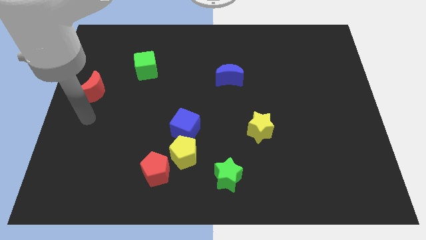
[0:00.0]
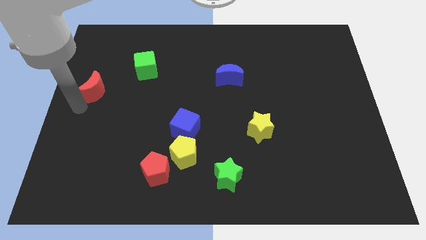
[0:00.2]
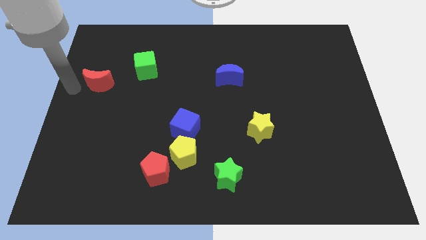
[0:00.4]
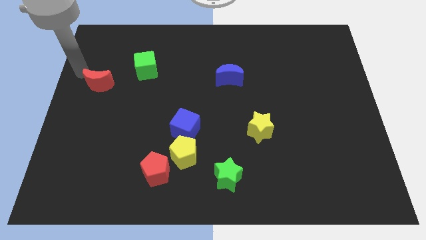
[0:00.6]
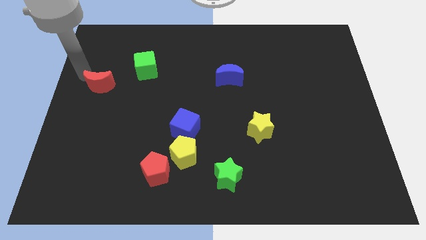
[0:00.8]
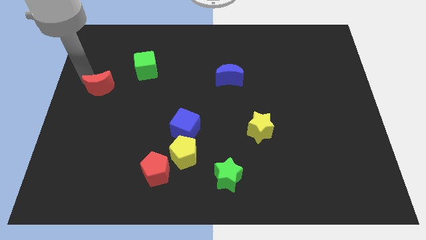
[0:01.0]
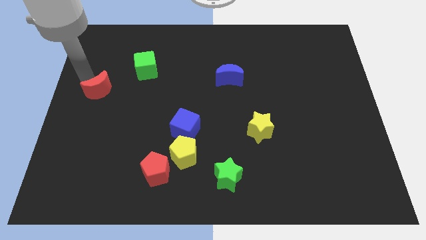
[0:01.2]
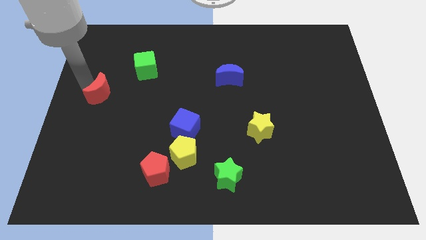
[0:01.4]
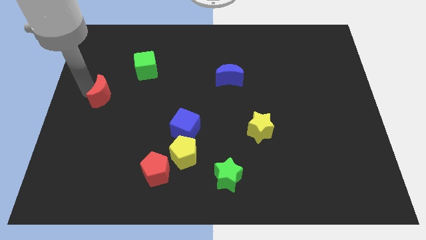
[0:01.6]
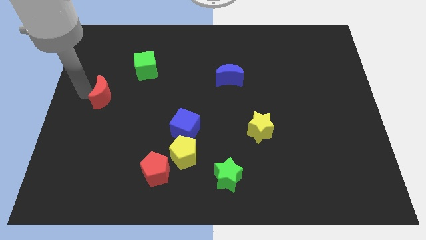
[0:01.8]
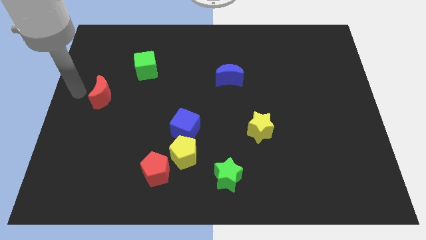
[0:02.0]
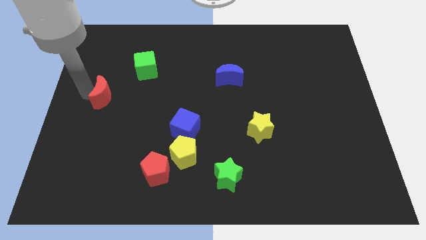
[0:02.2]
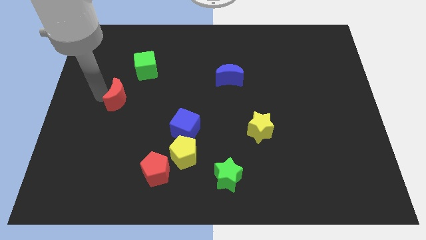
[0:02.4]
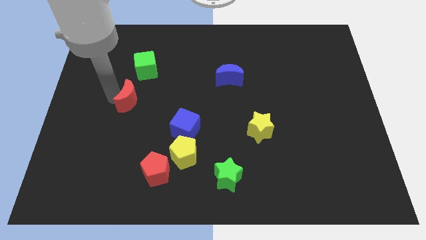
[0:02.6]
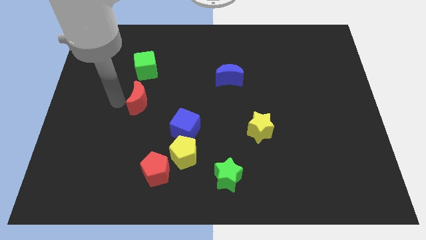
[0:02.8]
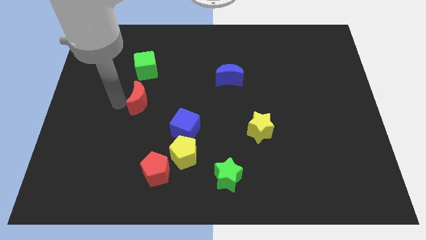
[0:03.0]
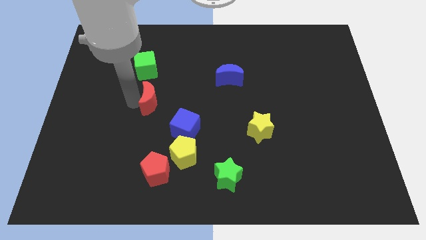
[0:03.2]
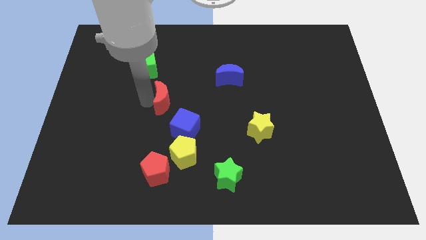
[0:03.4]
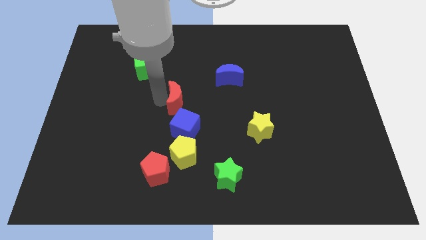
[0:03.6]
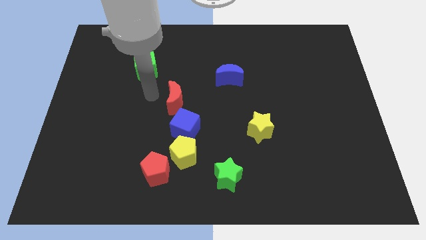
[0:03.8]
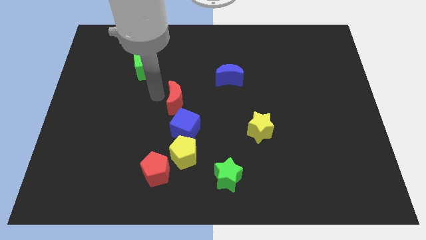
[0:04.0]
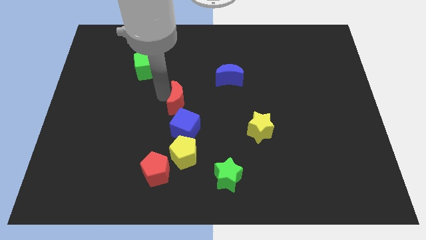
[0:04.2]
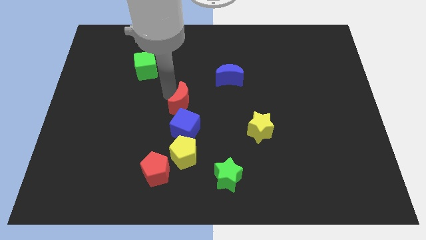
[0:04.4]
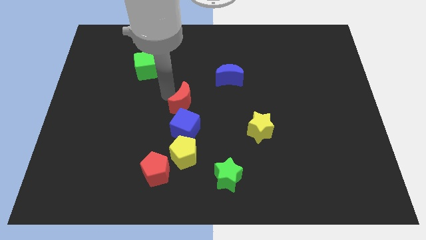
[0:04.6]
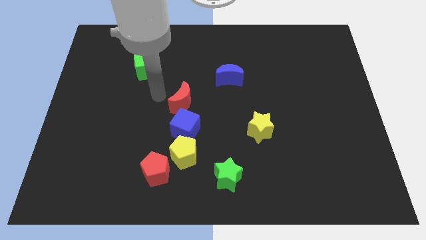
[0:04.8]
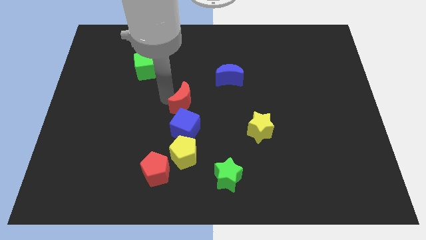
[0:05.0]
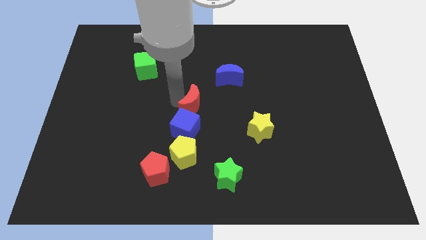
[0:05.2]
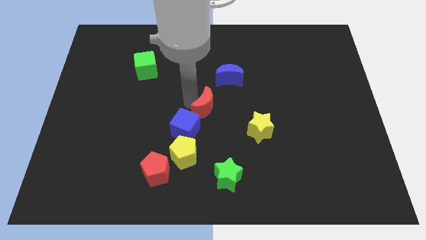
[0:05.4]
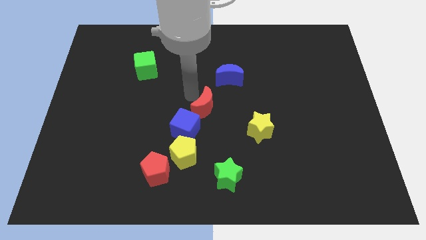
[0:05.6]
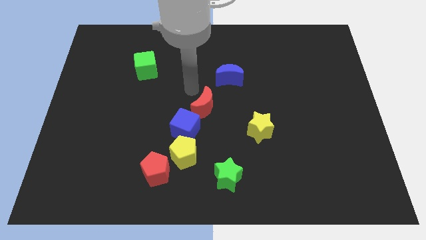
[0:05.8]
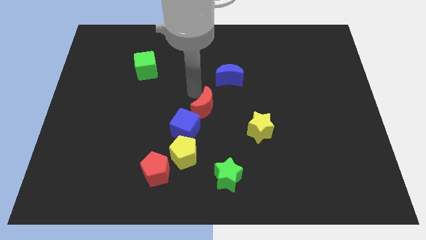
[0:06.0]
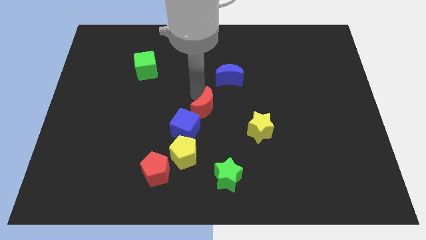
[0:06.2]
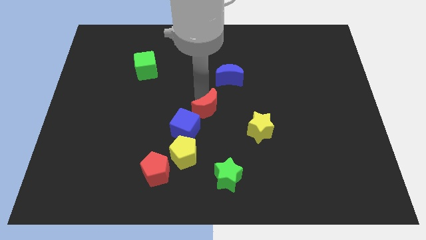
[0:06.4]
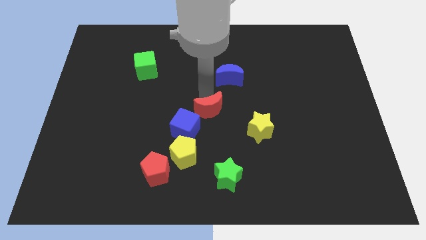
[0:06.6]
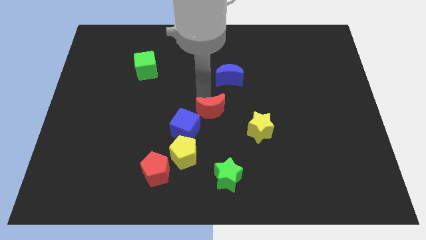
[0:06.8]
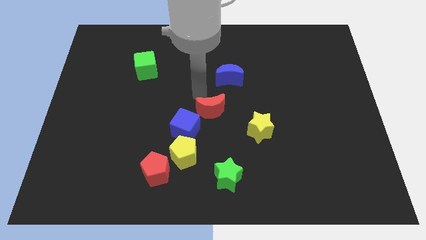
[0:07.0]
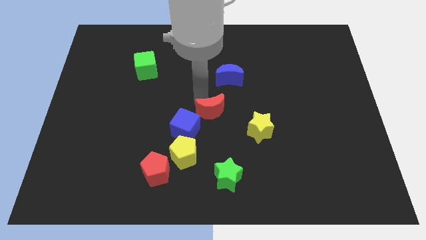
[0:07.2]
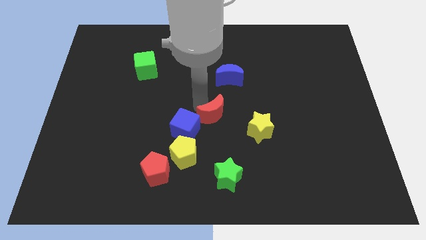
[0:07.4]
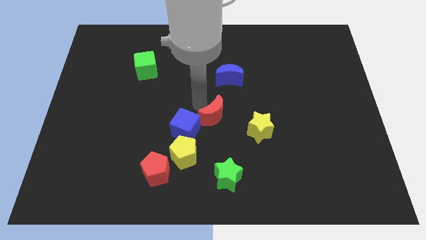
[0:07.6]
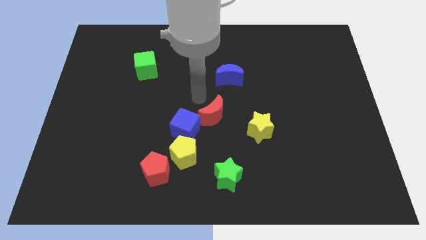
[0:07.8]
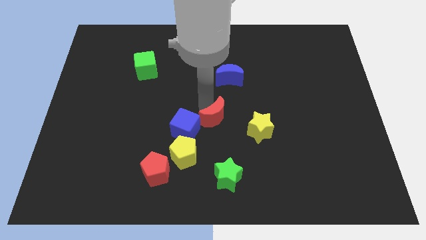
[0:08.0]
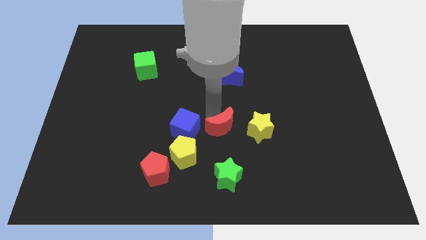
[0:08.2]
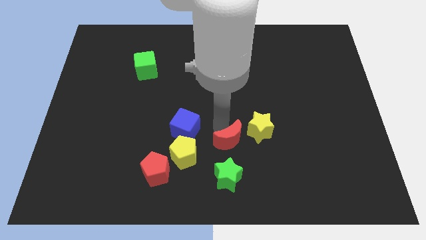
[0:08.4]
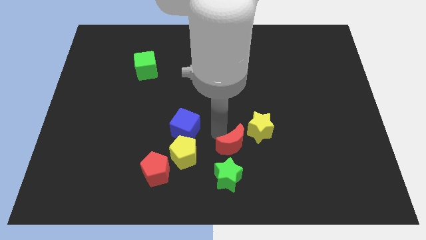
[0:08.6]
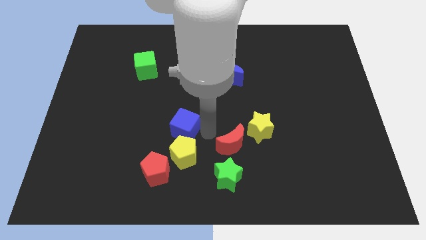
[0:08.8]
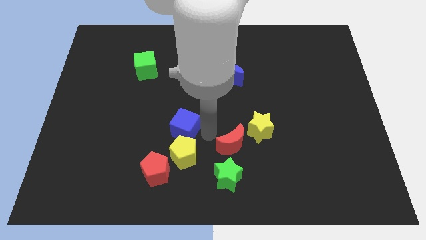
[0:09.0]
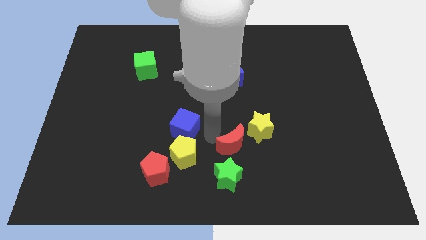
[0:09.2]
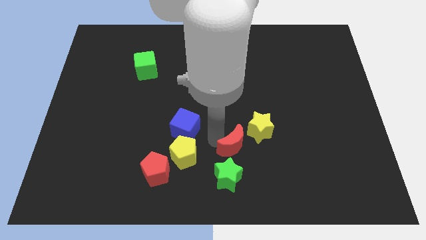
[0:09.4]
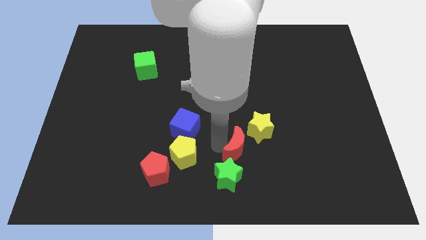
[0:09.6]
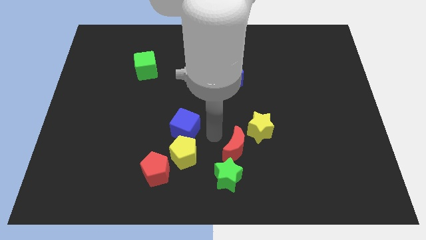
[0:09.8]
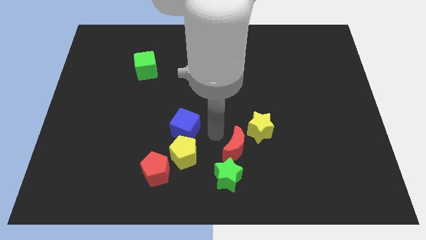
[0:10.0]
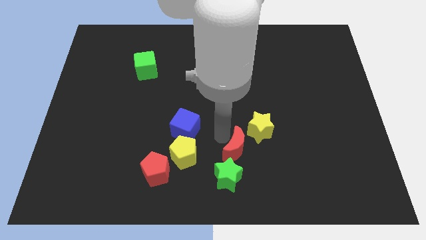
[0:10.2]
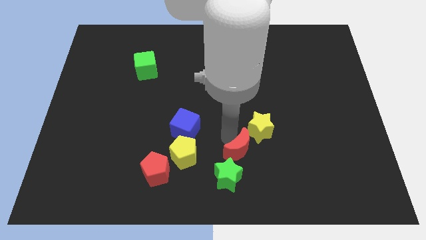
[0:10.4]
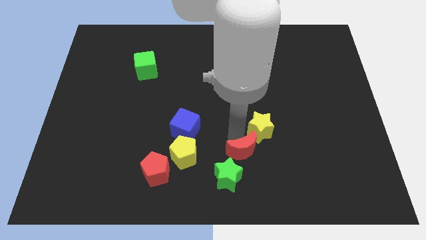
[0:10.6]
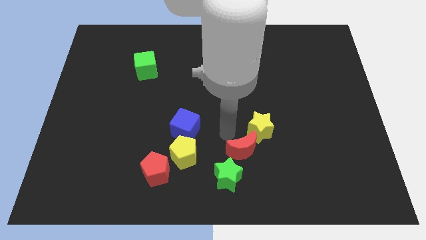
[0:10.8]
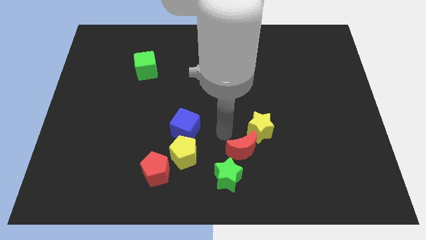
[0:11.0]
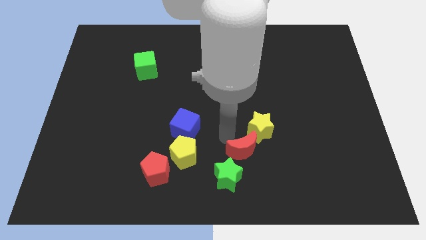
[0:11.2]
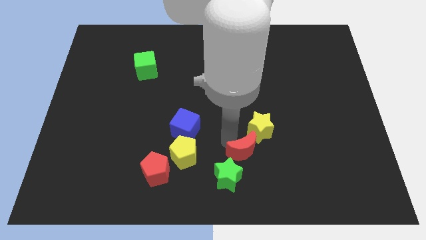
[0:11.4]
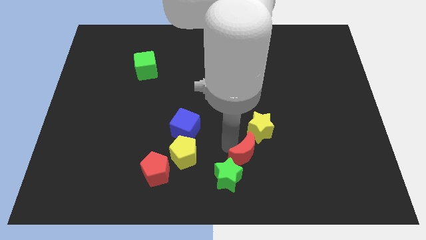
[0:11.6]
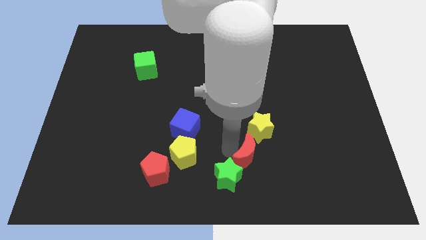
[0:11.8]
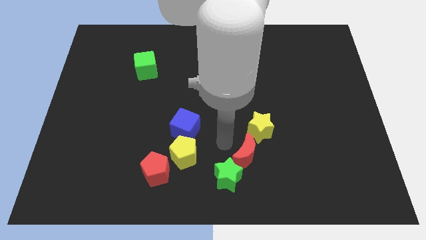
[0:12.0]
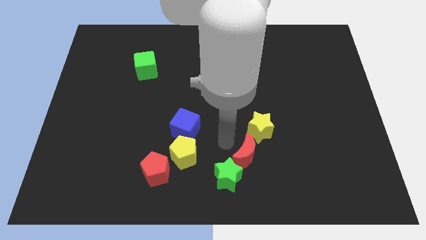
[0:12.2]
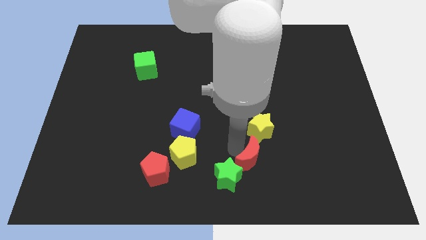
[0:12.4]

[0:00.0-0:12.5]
slide the red moon just right of the green star

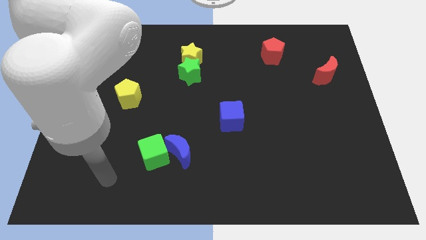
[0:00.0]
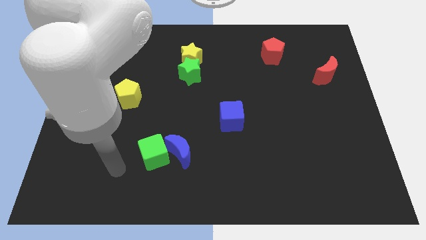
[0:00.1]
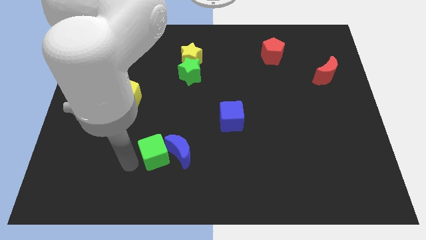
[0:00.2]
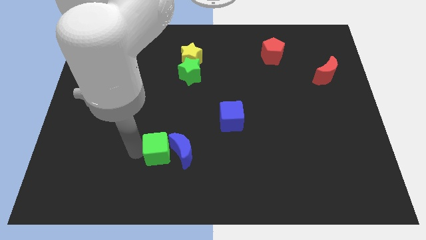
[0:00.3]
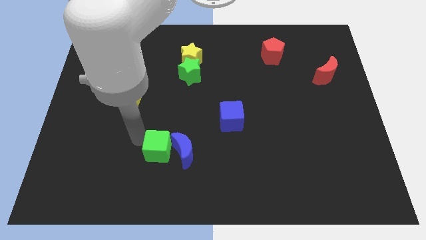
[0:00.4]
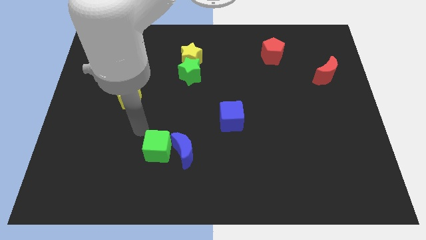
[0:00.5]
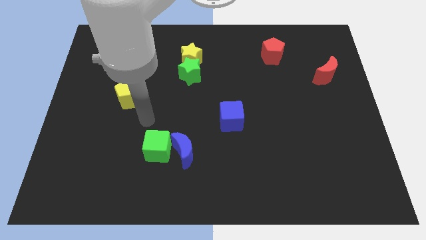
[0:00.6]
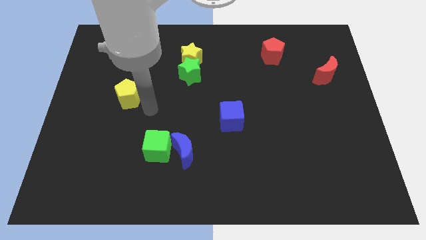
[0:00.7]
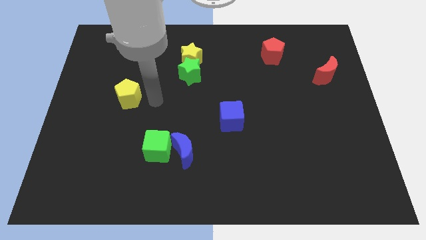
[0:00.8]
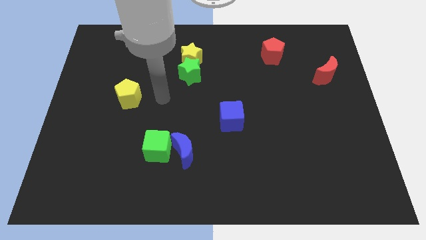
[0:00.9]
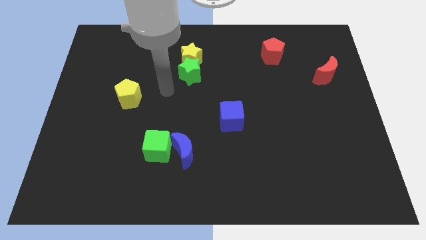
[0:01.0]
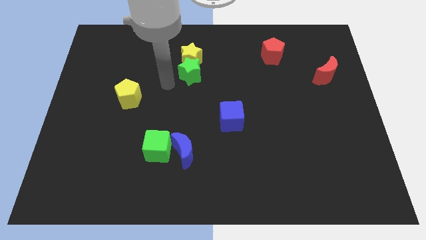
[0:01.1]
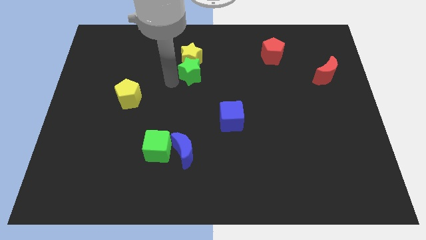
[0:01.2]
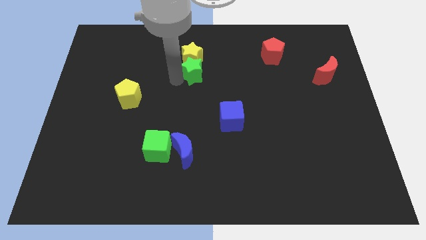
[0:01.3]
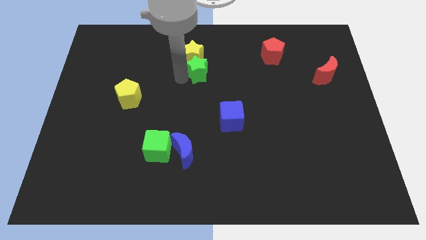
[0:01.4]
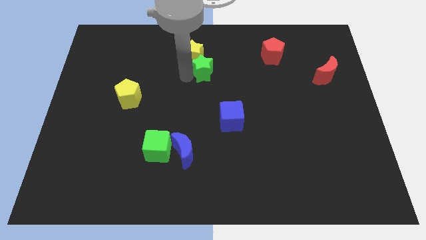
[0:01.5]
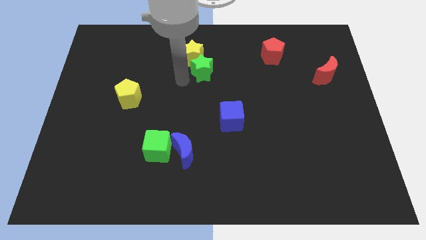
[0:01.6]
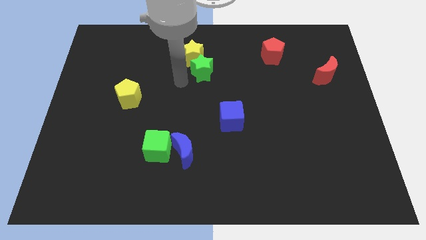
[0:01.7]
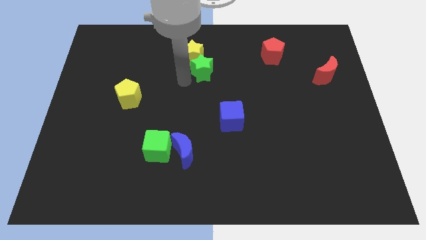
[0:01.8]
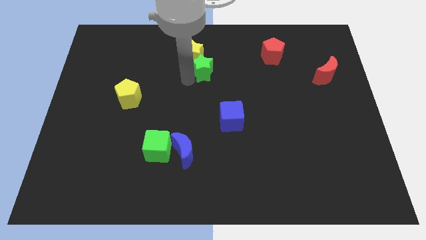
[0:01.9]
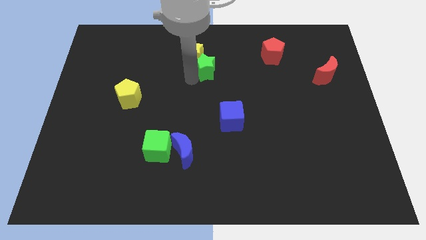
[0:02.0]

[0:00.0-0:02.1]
move the green star right of the yellow star
